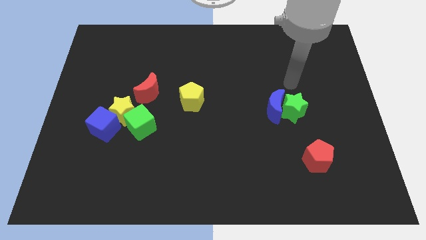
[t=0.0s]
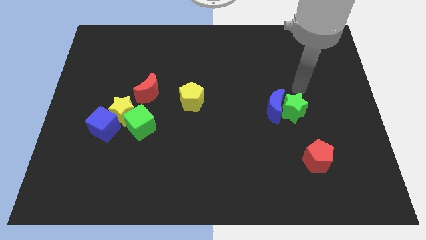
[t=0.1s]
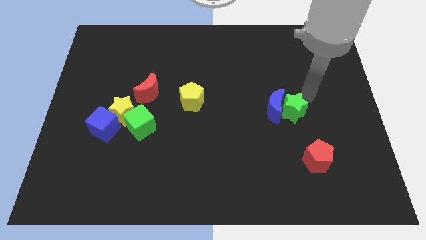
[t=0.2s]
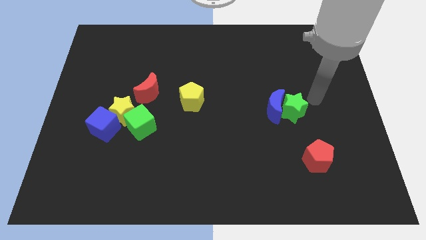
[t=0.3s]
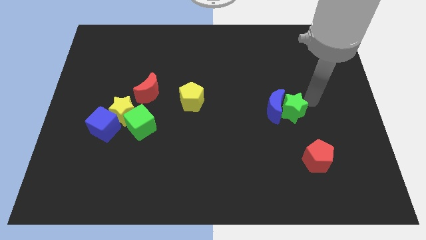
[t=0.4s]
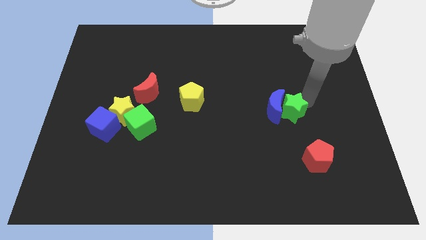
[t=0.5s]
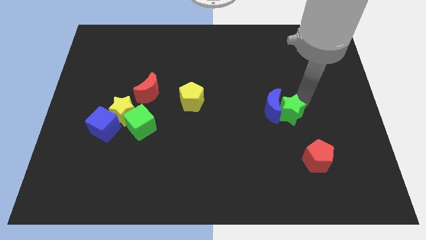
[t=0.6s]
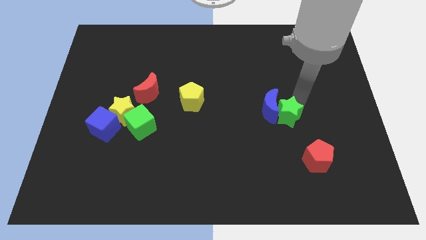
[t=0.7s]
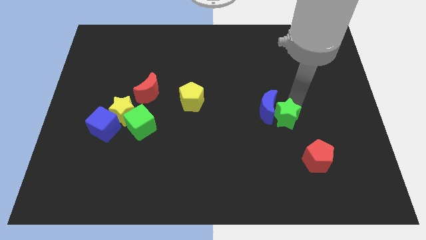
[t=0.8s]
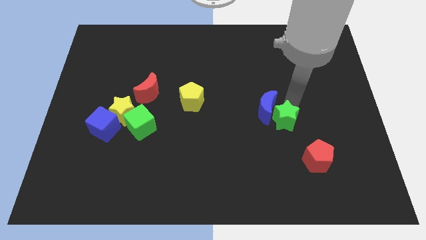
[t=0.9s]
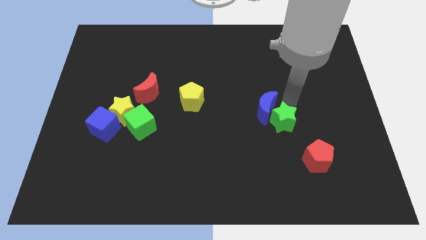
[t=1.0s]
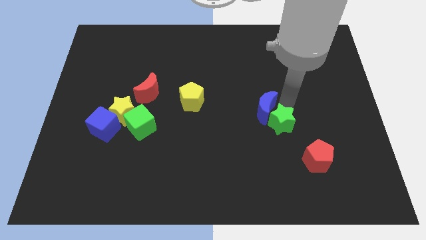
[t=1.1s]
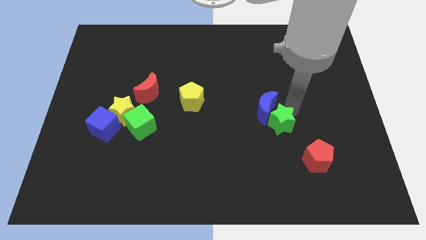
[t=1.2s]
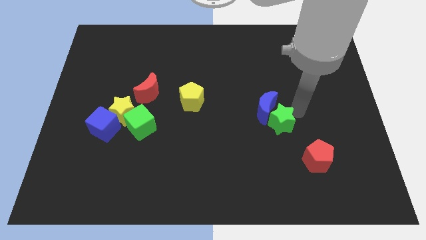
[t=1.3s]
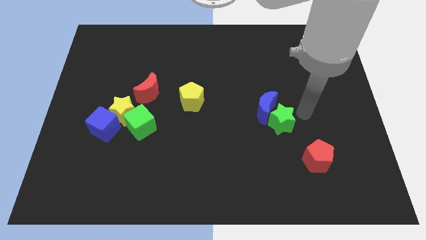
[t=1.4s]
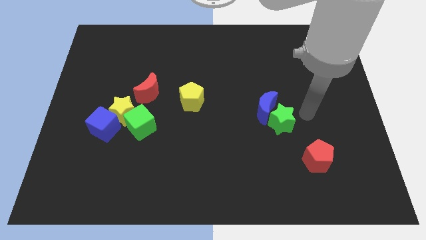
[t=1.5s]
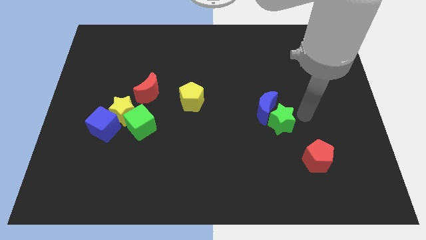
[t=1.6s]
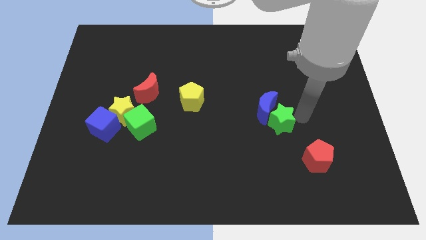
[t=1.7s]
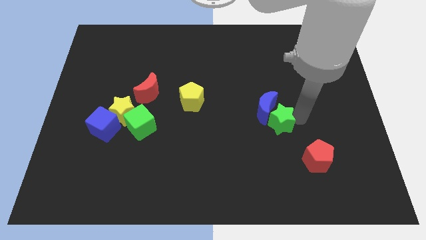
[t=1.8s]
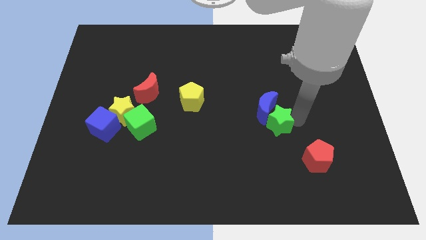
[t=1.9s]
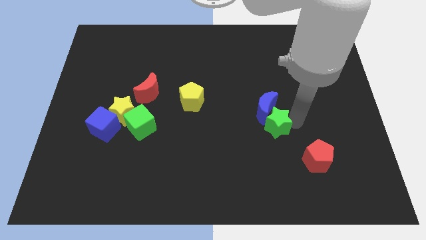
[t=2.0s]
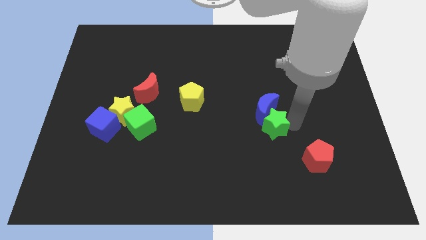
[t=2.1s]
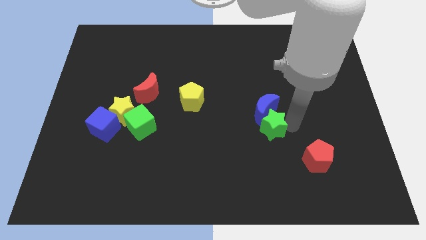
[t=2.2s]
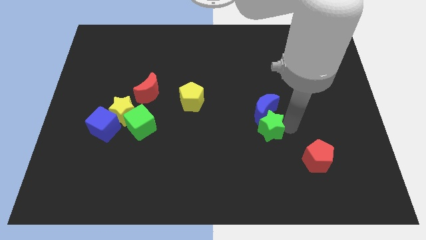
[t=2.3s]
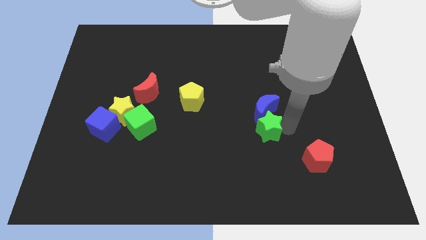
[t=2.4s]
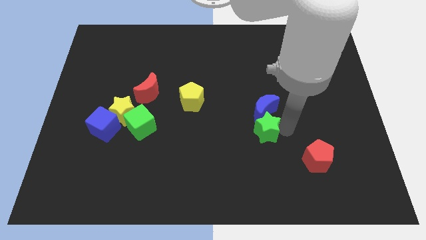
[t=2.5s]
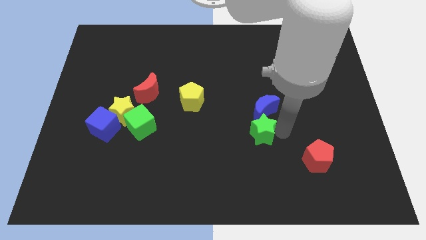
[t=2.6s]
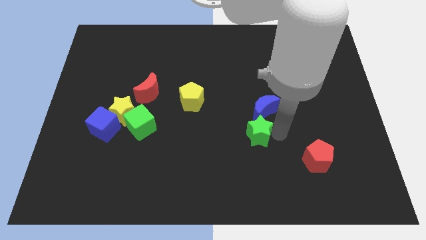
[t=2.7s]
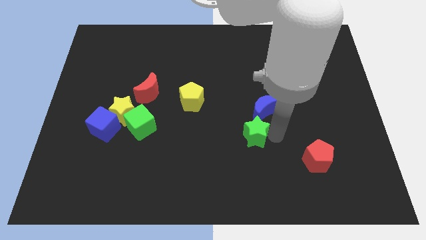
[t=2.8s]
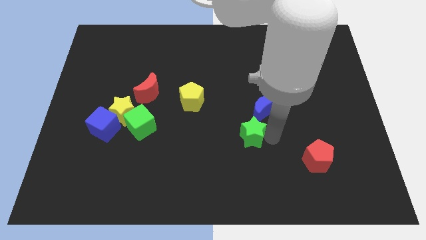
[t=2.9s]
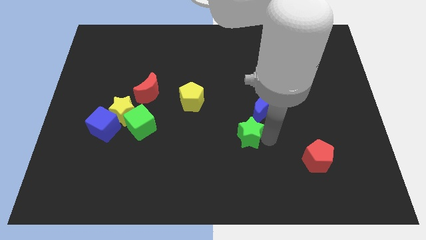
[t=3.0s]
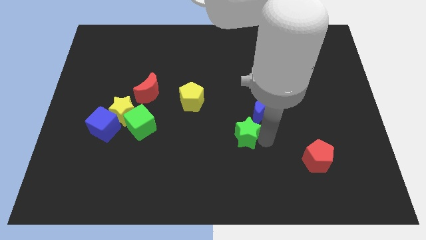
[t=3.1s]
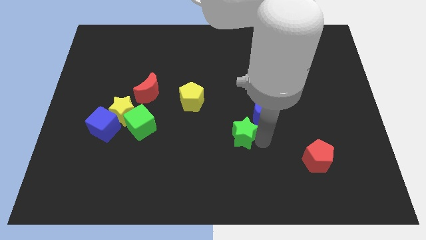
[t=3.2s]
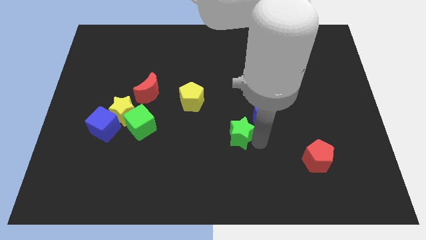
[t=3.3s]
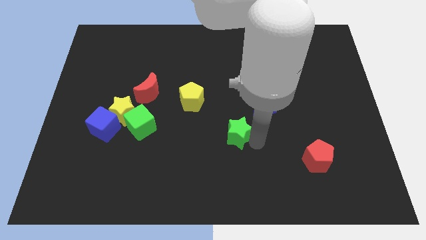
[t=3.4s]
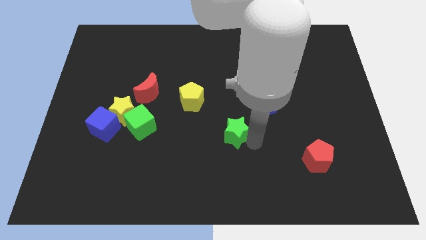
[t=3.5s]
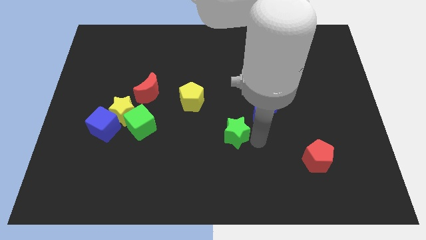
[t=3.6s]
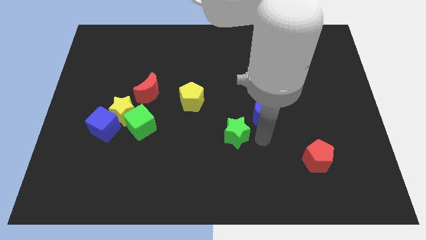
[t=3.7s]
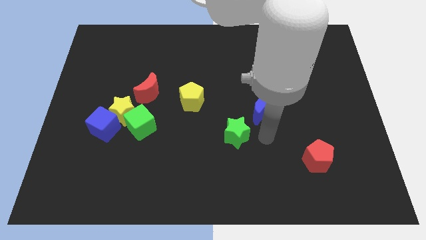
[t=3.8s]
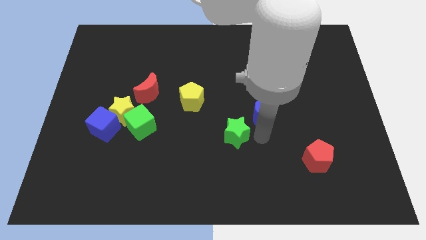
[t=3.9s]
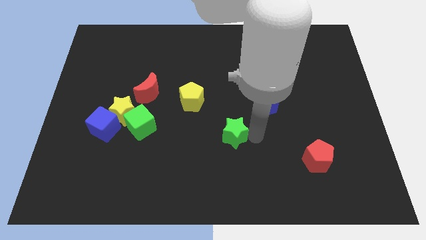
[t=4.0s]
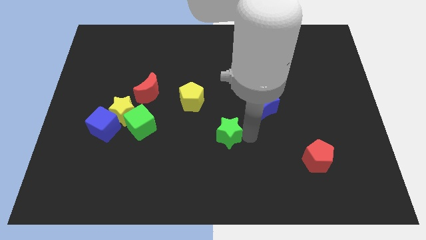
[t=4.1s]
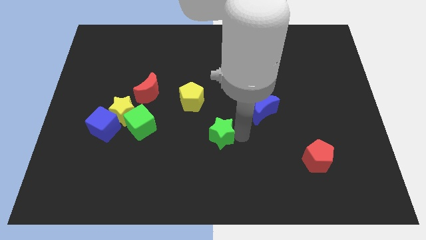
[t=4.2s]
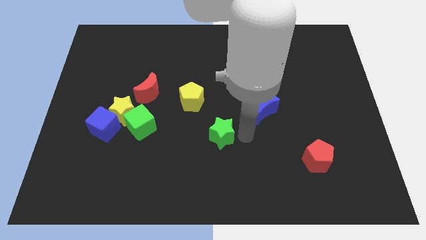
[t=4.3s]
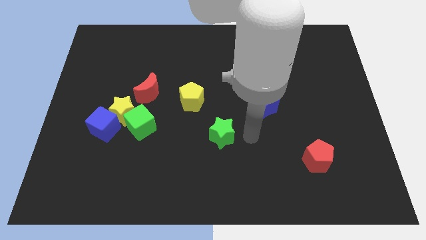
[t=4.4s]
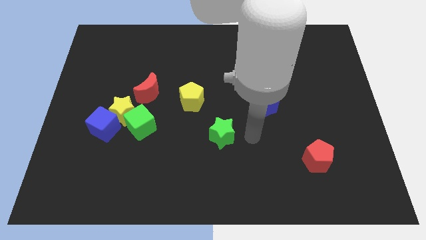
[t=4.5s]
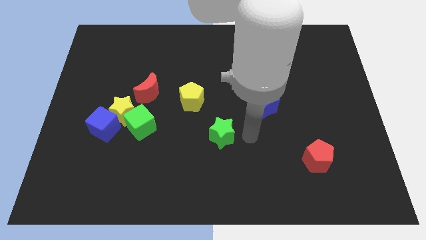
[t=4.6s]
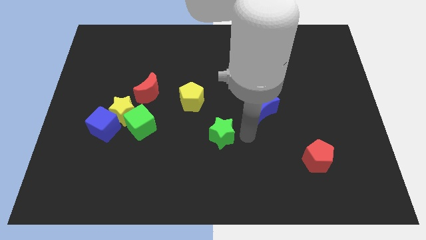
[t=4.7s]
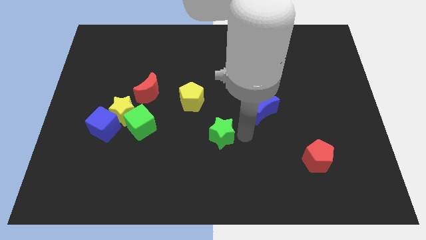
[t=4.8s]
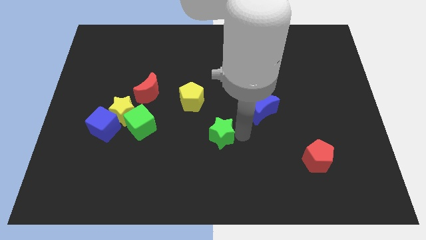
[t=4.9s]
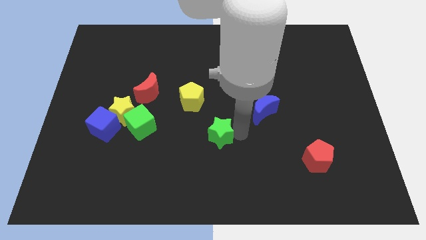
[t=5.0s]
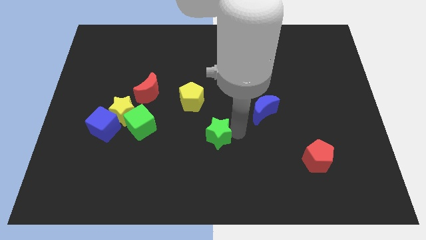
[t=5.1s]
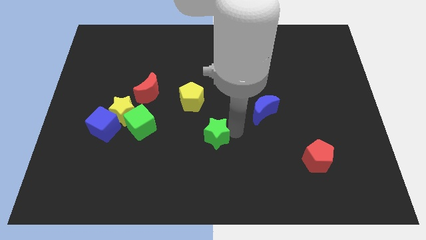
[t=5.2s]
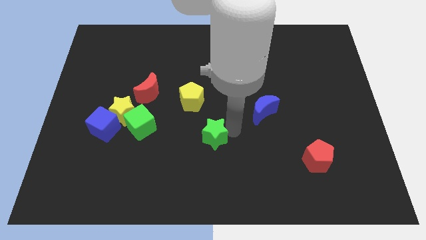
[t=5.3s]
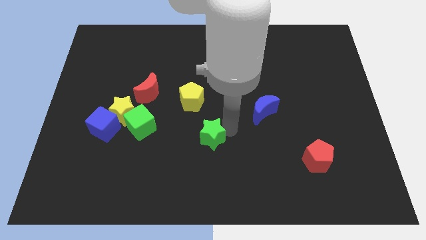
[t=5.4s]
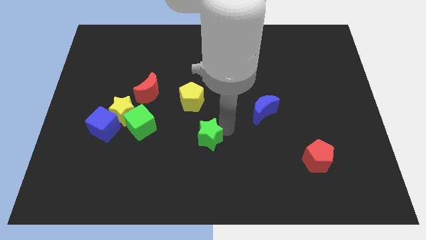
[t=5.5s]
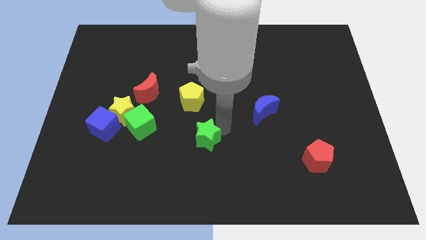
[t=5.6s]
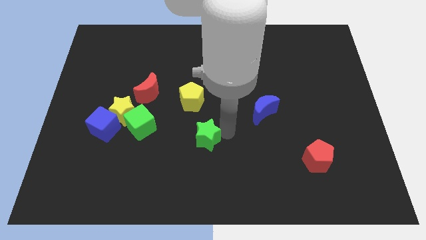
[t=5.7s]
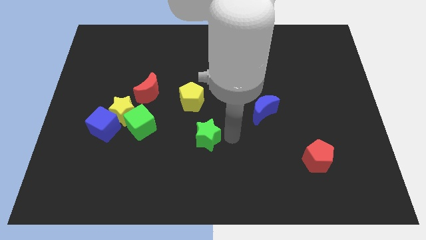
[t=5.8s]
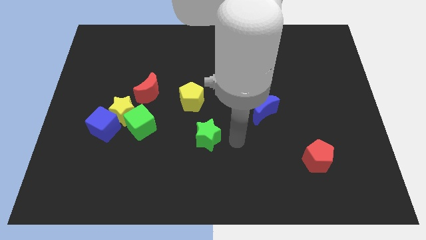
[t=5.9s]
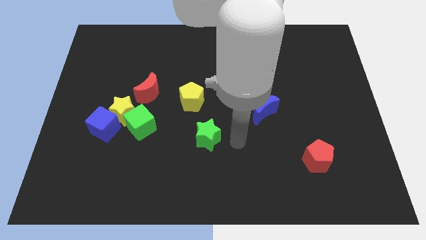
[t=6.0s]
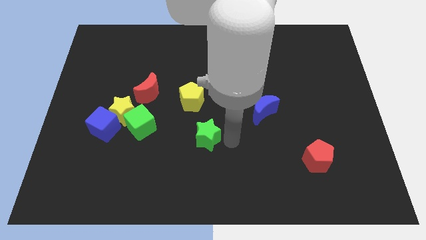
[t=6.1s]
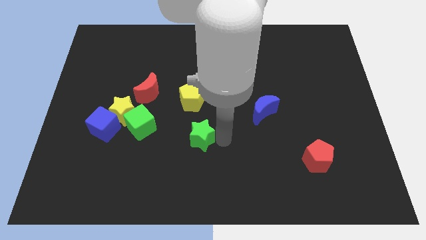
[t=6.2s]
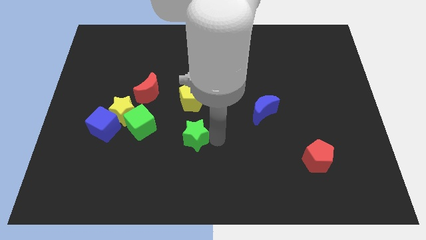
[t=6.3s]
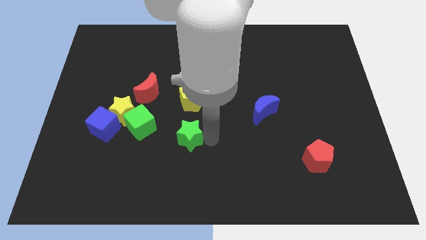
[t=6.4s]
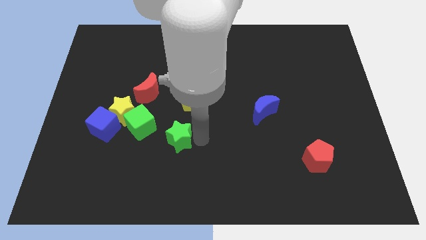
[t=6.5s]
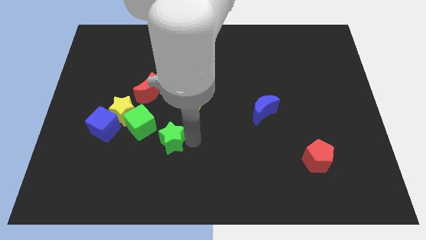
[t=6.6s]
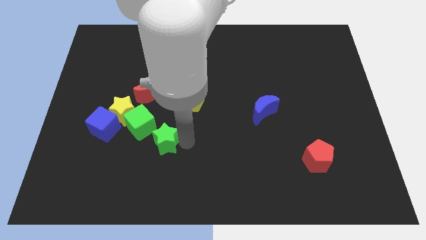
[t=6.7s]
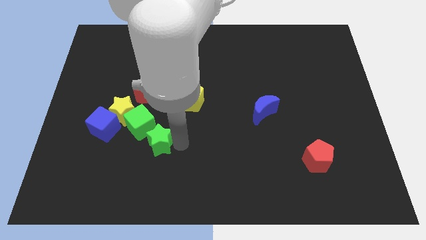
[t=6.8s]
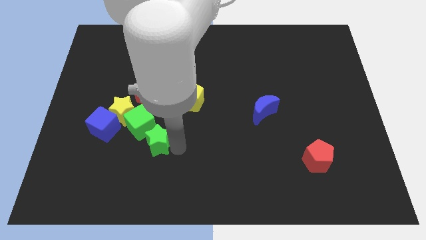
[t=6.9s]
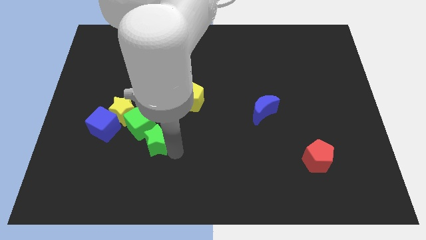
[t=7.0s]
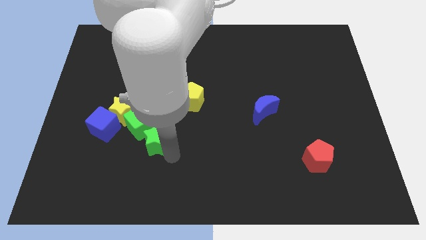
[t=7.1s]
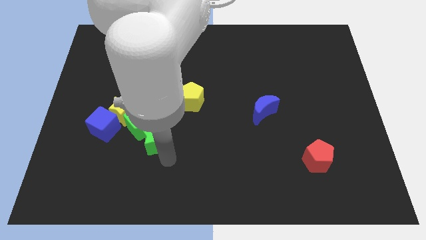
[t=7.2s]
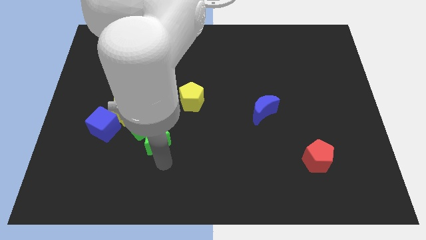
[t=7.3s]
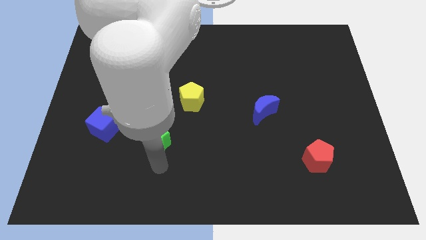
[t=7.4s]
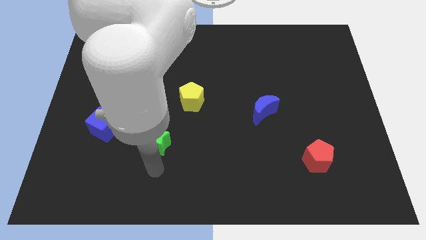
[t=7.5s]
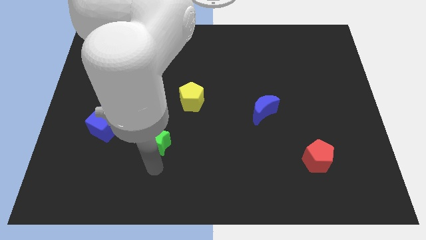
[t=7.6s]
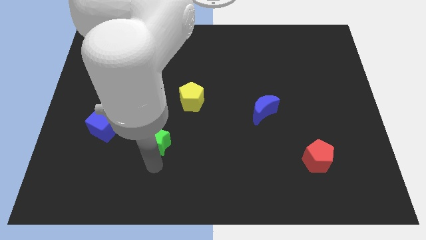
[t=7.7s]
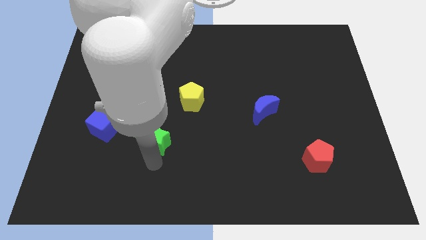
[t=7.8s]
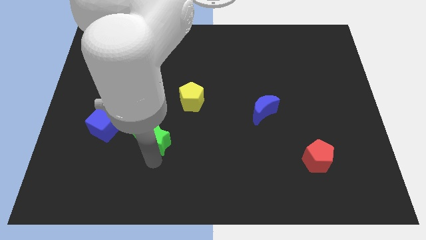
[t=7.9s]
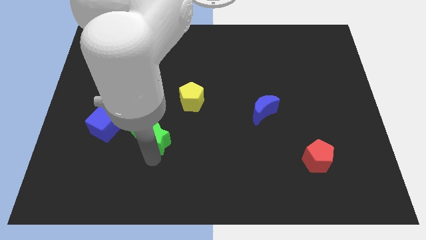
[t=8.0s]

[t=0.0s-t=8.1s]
push the green star close to the green cube
